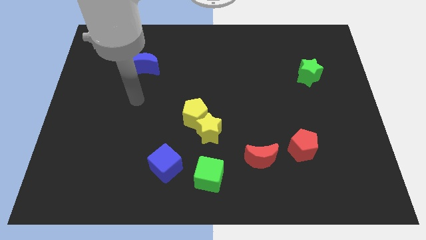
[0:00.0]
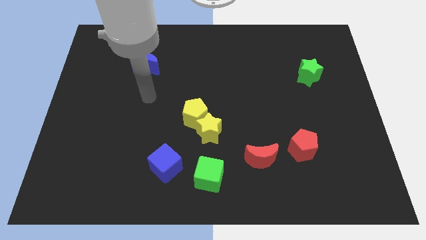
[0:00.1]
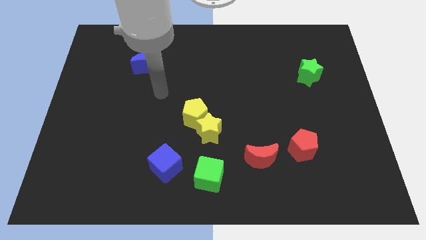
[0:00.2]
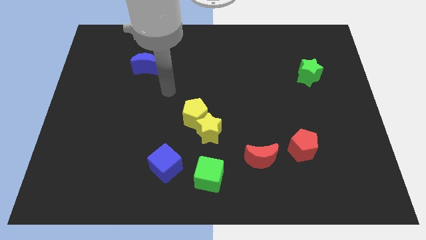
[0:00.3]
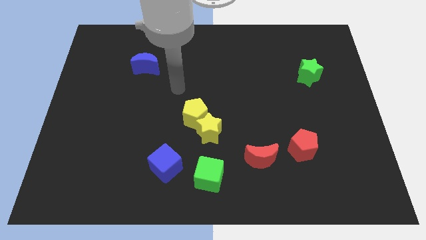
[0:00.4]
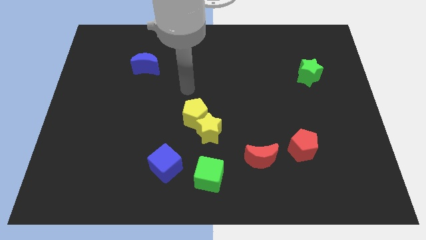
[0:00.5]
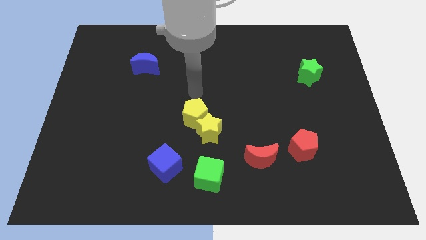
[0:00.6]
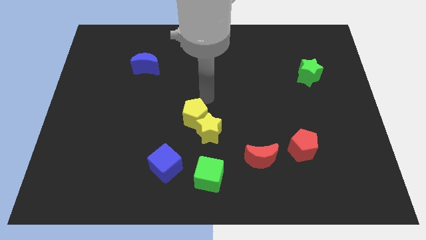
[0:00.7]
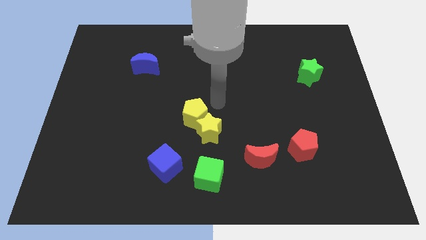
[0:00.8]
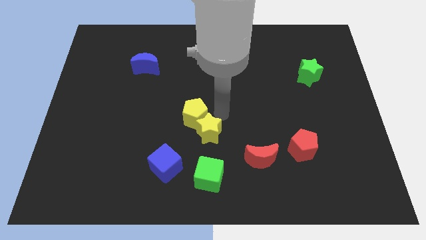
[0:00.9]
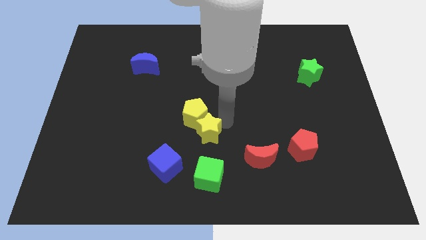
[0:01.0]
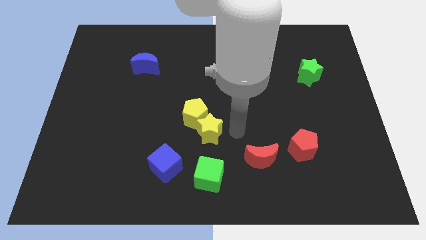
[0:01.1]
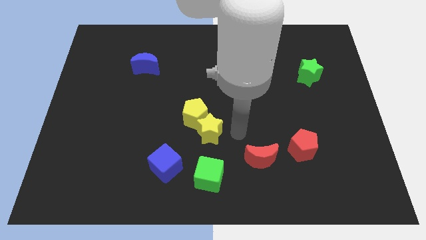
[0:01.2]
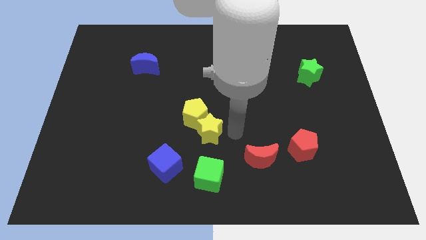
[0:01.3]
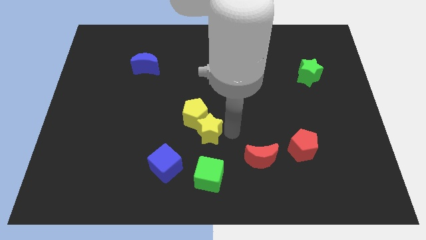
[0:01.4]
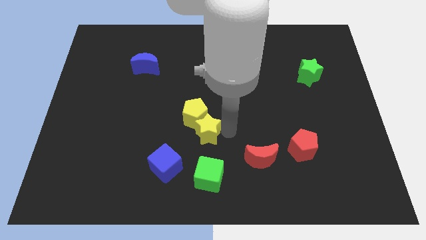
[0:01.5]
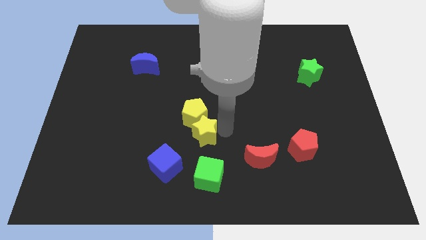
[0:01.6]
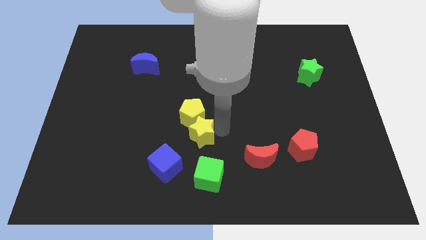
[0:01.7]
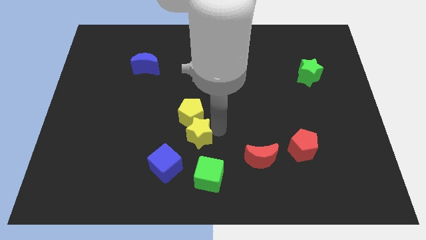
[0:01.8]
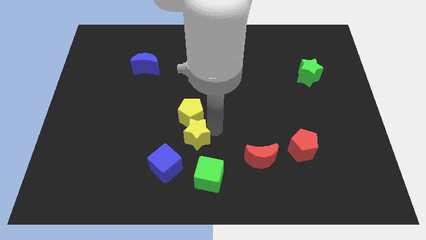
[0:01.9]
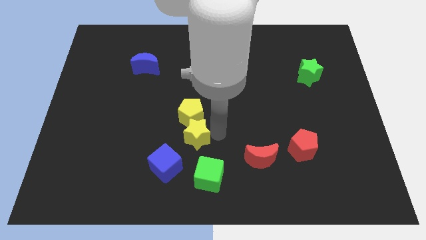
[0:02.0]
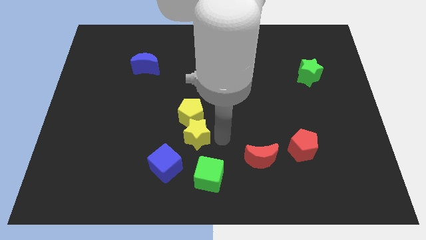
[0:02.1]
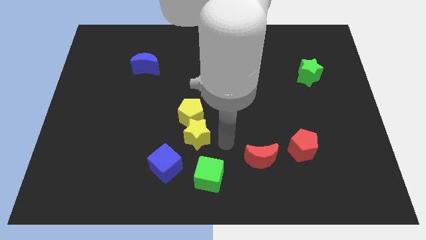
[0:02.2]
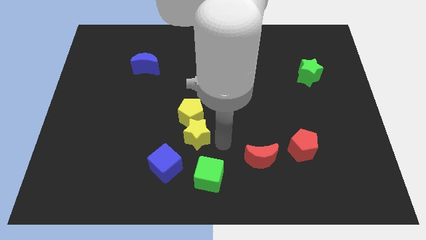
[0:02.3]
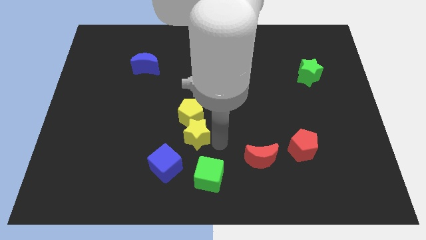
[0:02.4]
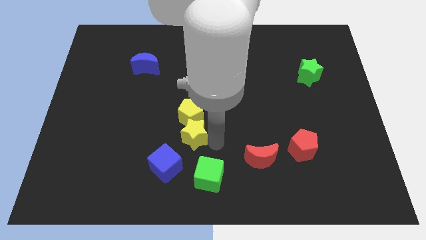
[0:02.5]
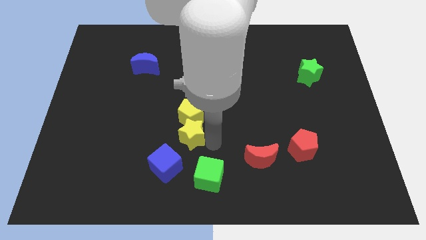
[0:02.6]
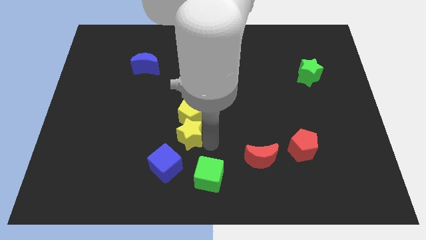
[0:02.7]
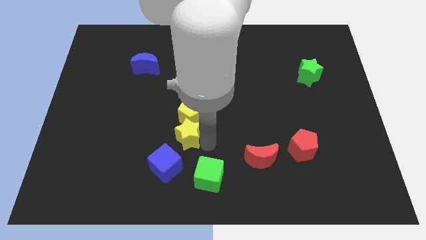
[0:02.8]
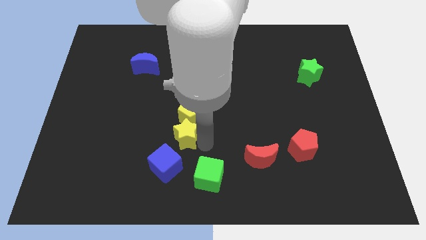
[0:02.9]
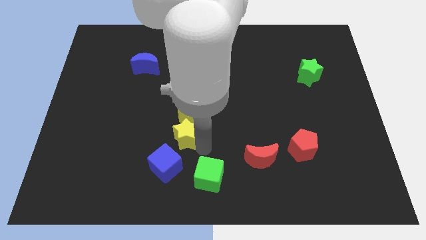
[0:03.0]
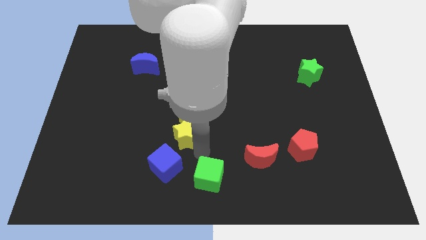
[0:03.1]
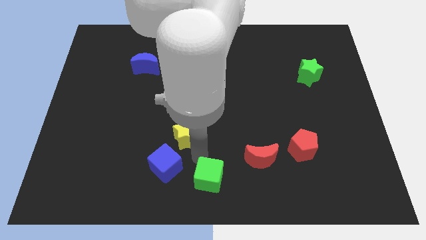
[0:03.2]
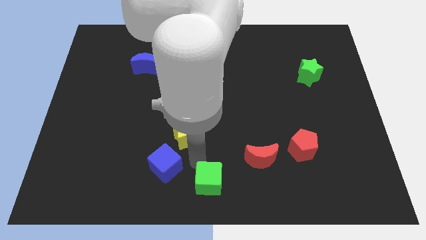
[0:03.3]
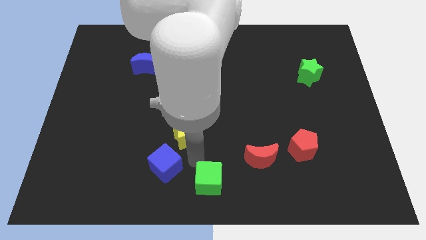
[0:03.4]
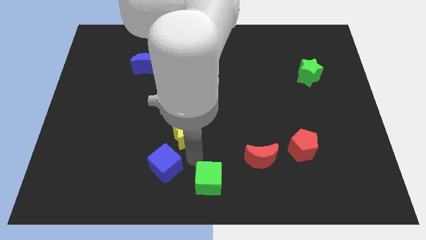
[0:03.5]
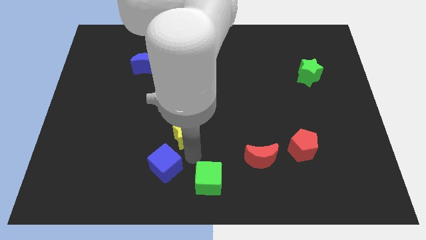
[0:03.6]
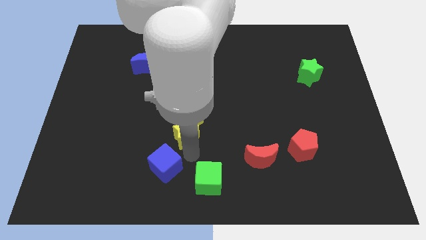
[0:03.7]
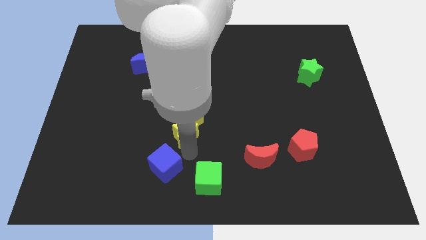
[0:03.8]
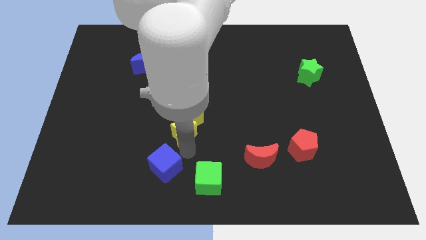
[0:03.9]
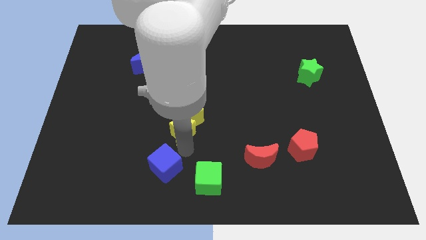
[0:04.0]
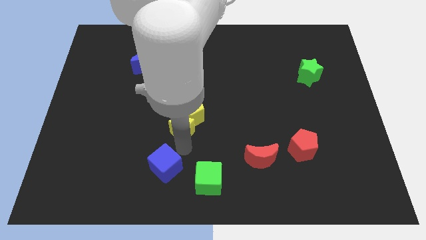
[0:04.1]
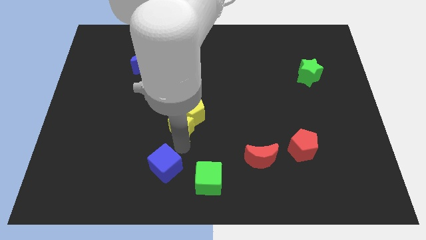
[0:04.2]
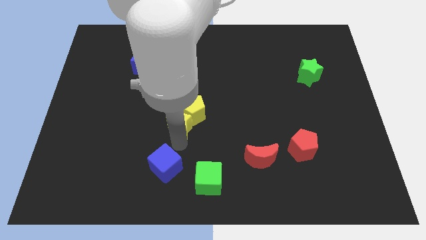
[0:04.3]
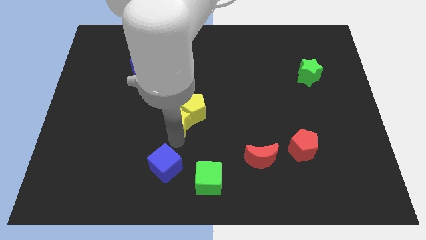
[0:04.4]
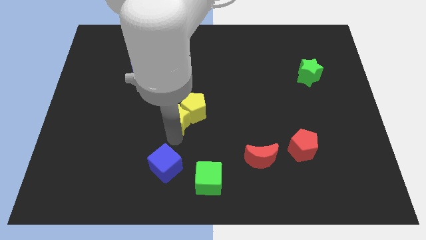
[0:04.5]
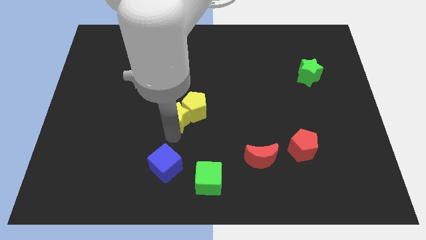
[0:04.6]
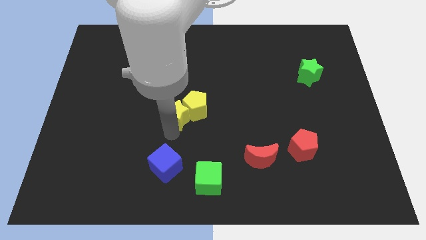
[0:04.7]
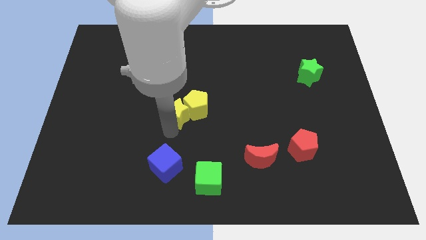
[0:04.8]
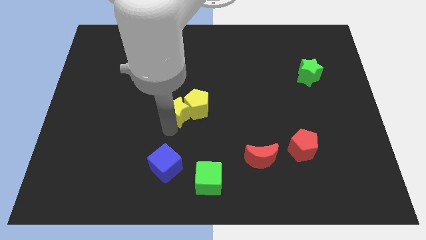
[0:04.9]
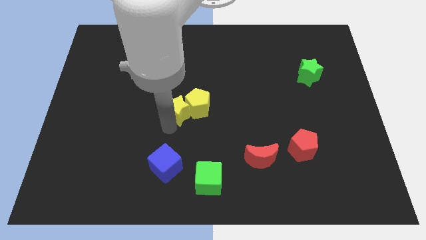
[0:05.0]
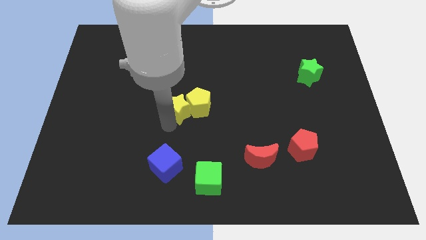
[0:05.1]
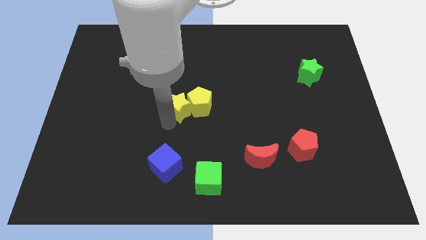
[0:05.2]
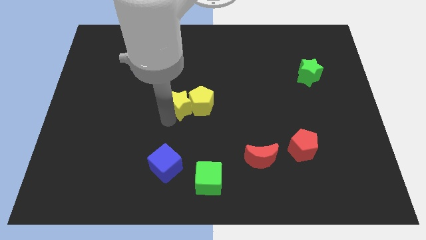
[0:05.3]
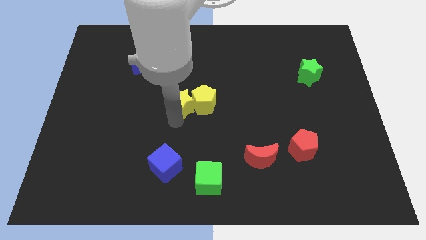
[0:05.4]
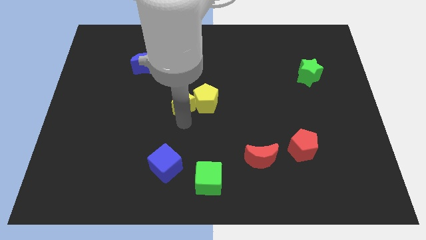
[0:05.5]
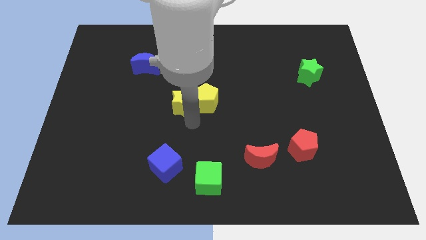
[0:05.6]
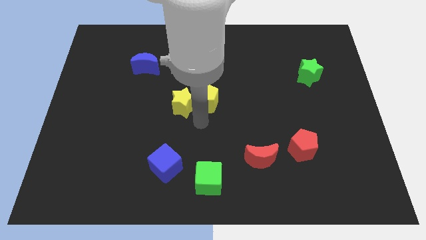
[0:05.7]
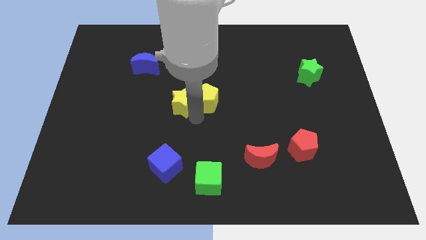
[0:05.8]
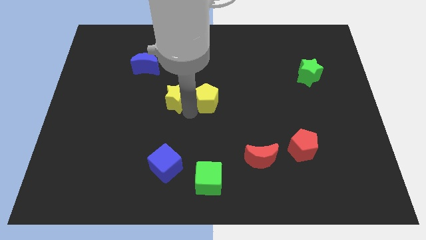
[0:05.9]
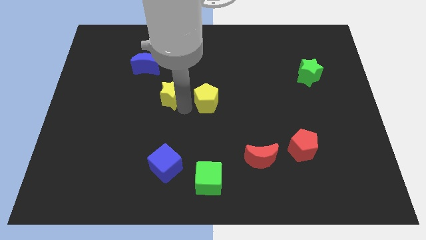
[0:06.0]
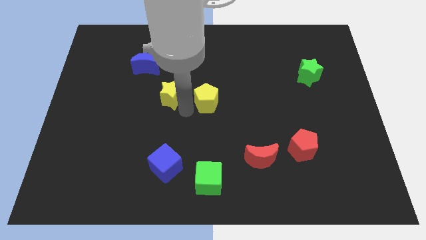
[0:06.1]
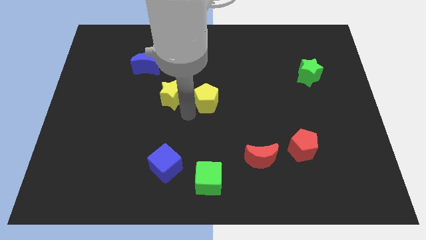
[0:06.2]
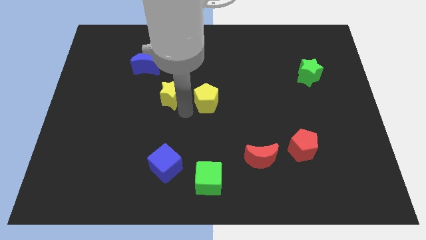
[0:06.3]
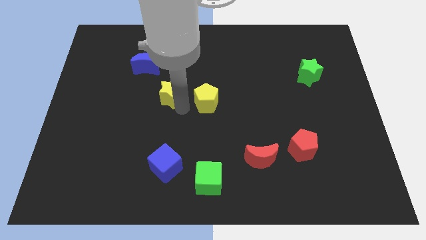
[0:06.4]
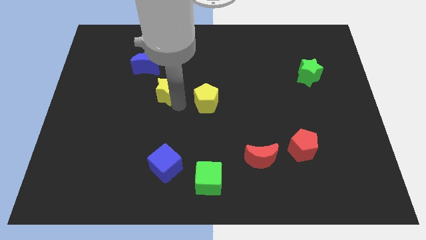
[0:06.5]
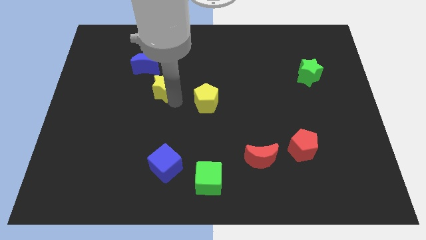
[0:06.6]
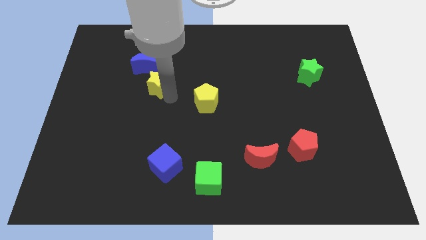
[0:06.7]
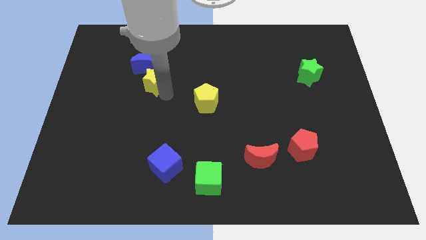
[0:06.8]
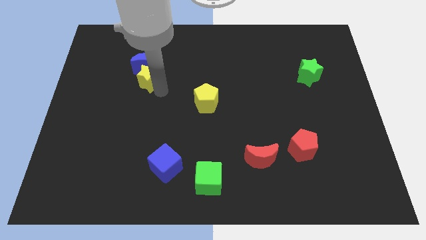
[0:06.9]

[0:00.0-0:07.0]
put the yellow star to the blue moon
